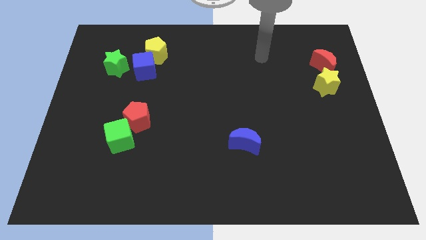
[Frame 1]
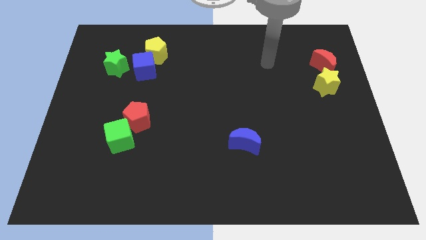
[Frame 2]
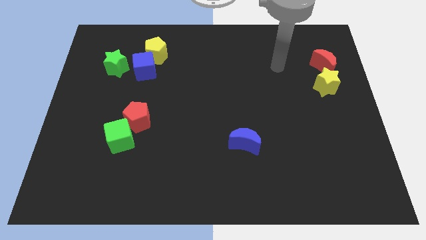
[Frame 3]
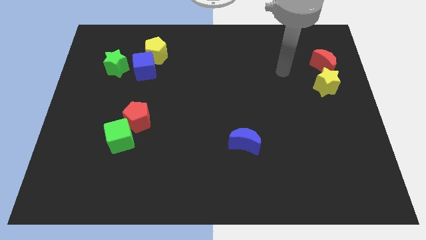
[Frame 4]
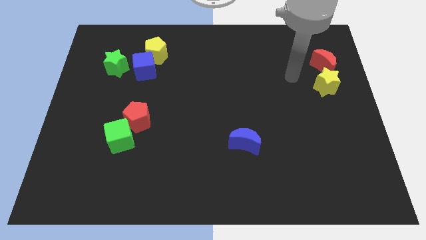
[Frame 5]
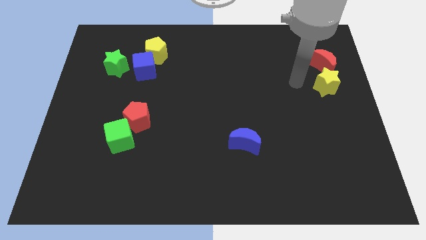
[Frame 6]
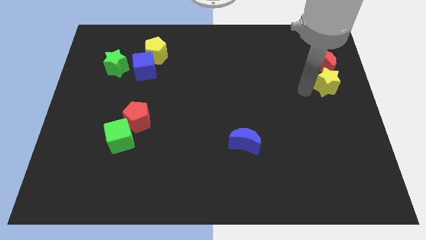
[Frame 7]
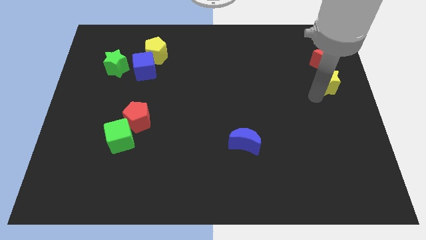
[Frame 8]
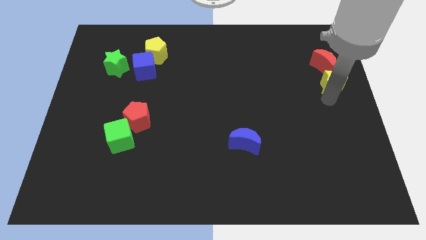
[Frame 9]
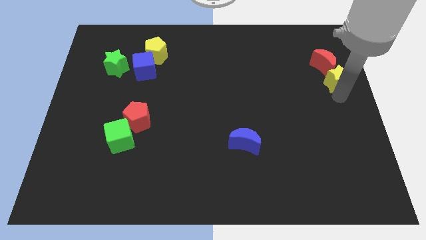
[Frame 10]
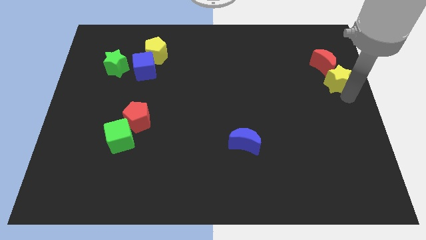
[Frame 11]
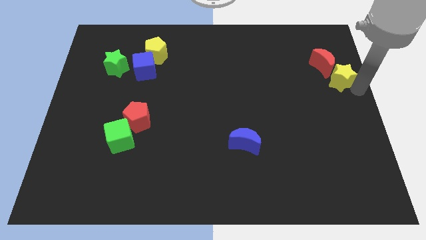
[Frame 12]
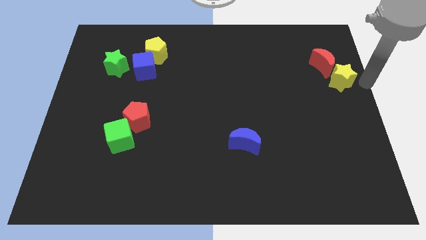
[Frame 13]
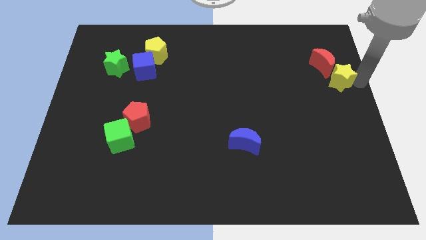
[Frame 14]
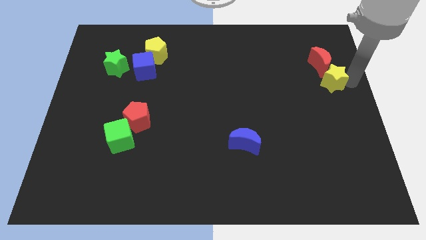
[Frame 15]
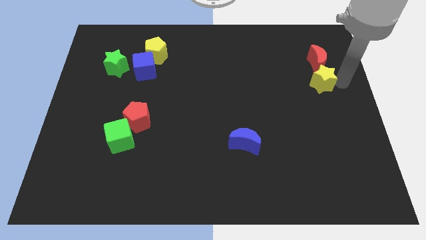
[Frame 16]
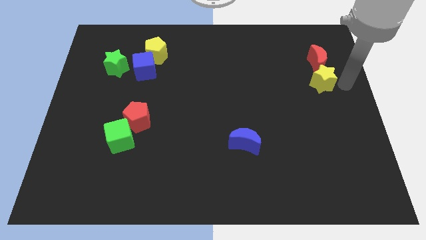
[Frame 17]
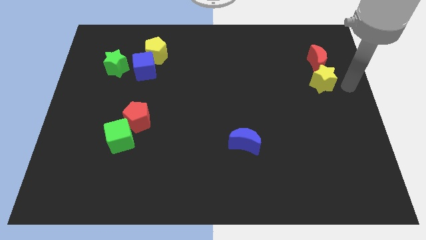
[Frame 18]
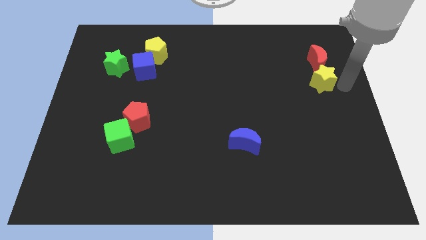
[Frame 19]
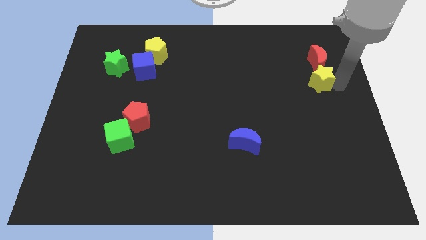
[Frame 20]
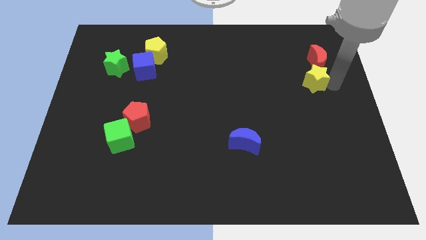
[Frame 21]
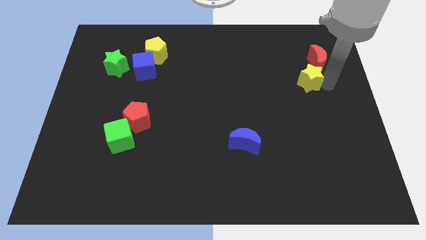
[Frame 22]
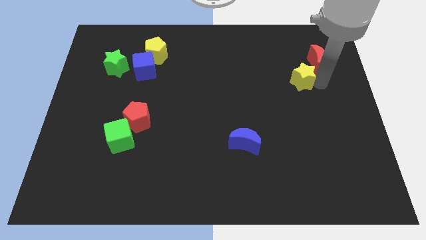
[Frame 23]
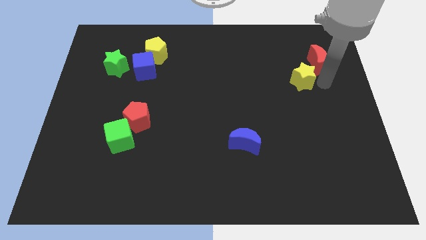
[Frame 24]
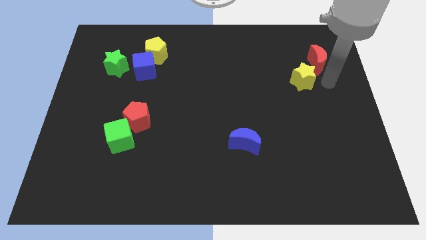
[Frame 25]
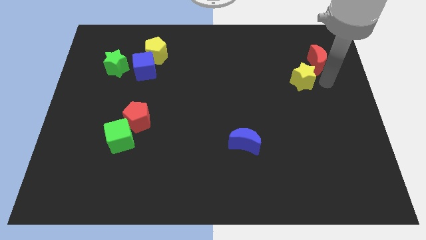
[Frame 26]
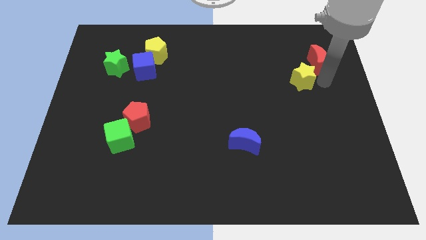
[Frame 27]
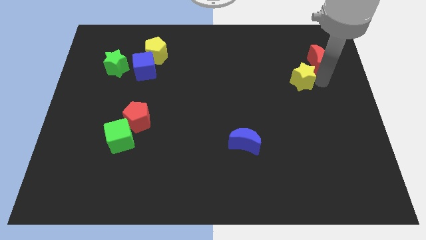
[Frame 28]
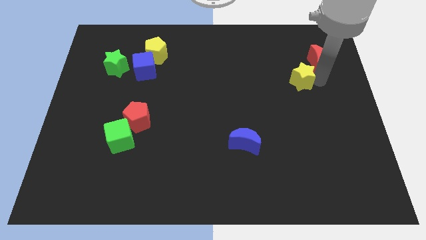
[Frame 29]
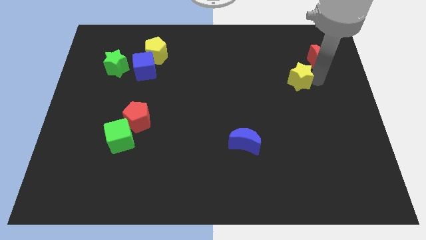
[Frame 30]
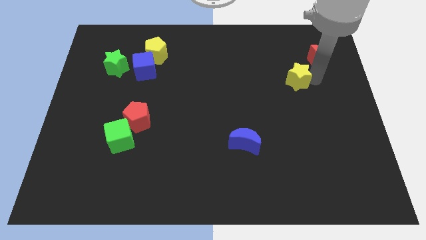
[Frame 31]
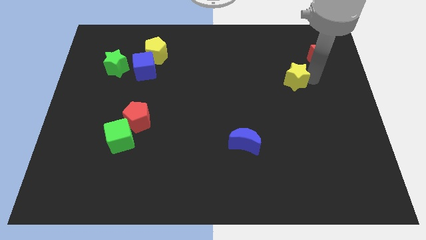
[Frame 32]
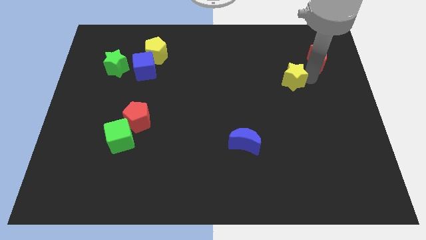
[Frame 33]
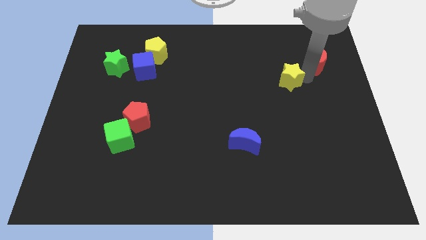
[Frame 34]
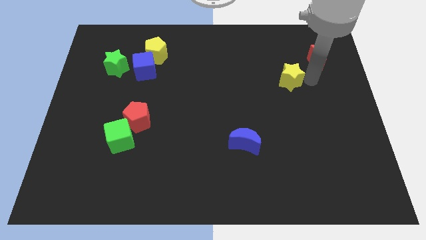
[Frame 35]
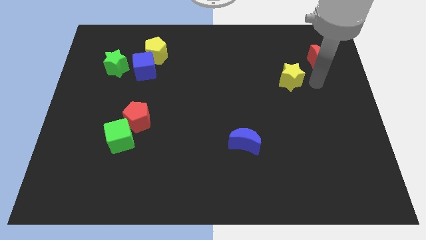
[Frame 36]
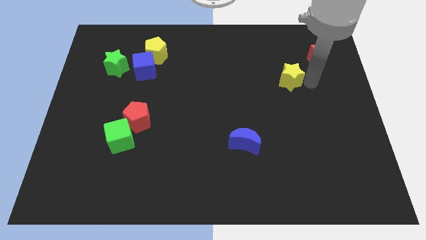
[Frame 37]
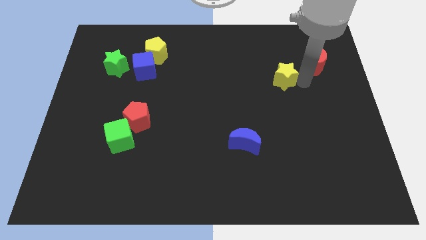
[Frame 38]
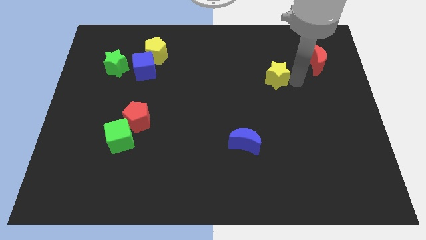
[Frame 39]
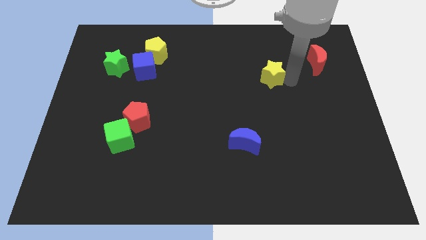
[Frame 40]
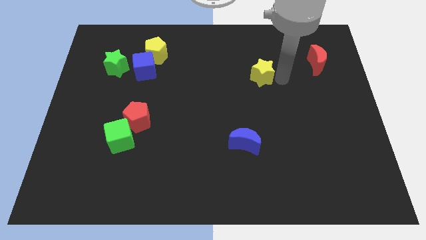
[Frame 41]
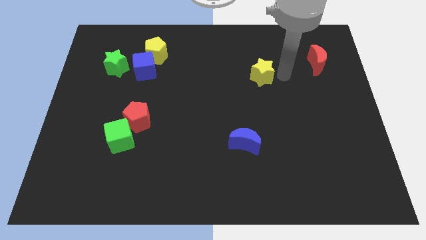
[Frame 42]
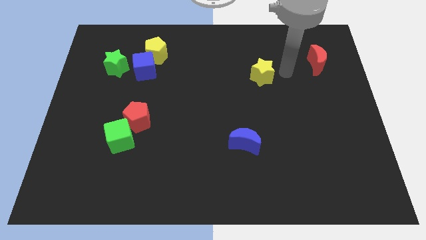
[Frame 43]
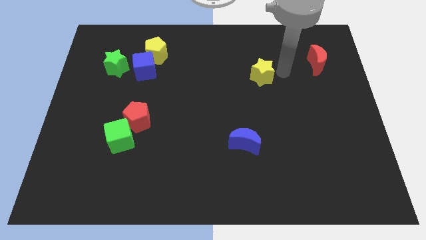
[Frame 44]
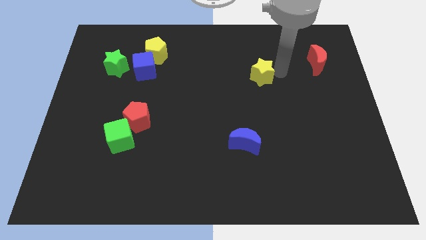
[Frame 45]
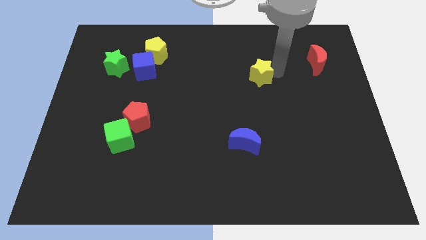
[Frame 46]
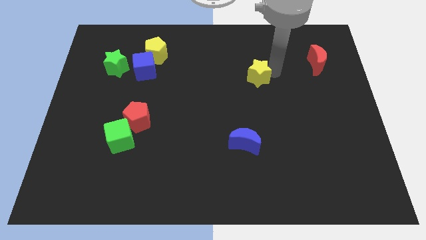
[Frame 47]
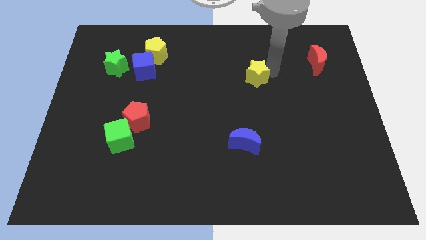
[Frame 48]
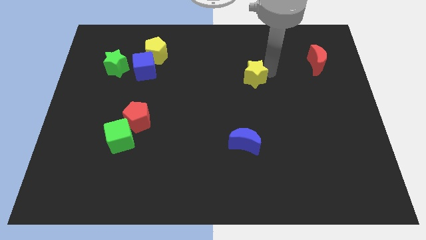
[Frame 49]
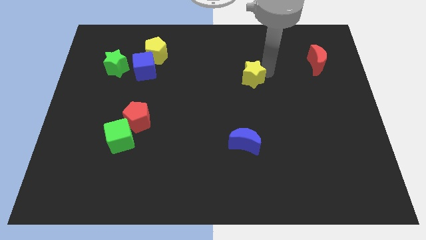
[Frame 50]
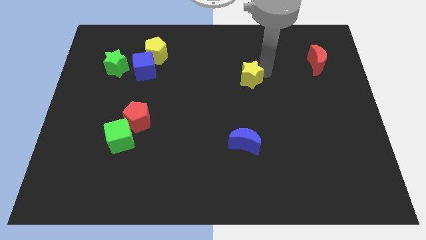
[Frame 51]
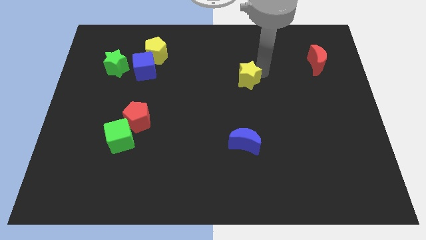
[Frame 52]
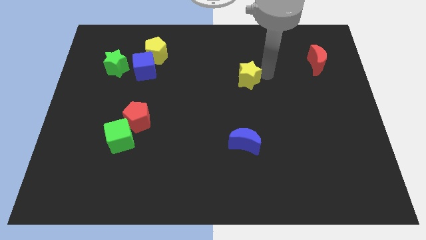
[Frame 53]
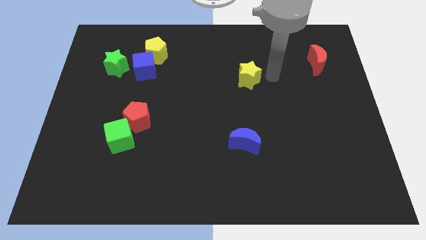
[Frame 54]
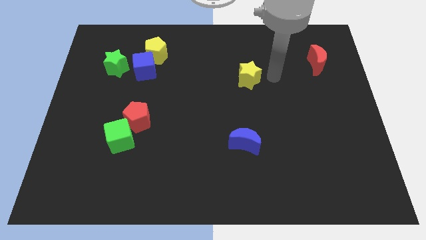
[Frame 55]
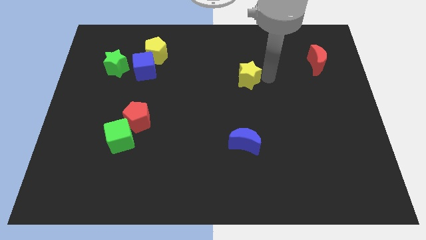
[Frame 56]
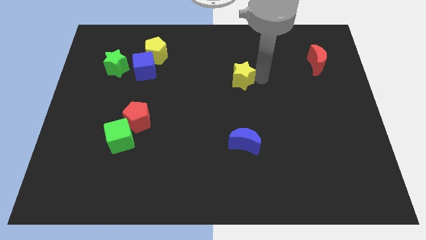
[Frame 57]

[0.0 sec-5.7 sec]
push the yellow star to the left

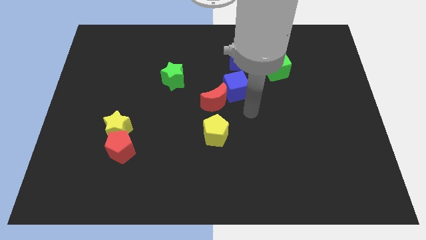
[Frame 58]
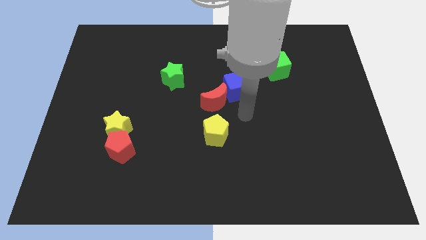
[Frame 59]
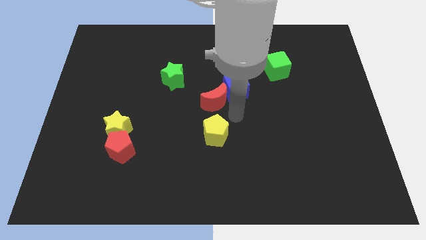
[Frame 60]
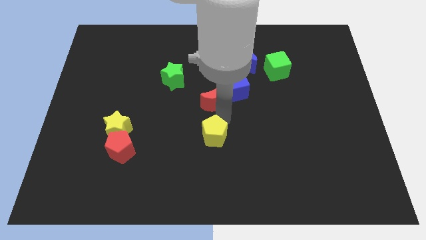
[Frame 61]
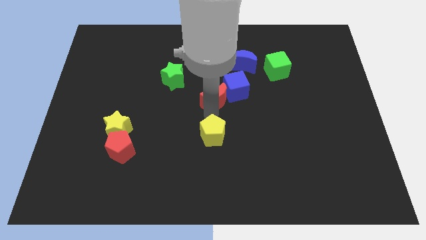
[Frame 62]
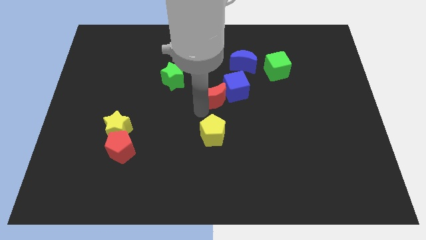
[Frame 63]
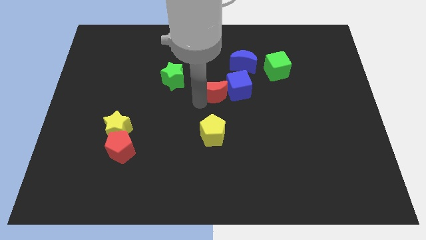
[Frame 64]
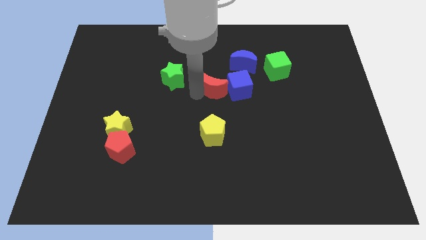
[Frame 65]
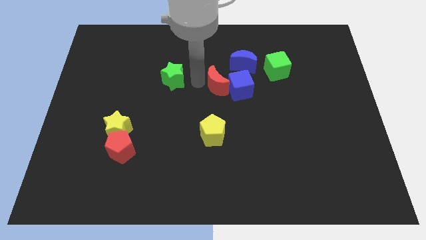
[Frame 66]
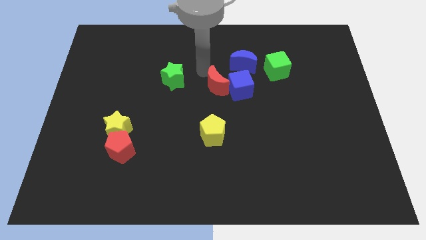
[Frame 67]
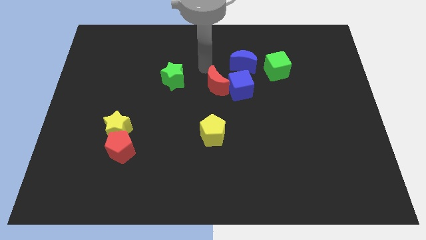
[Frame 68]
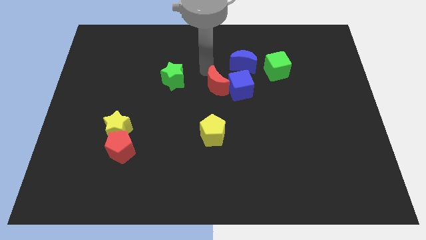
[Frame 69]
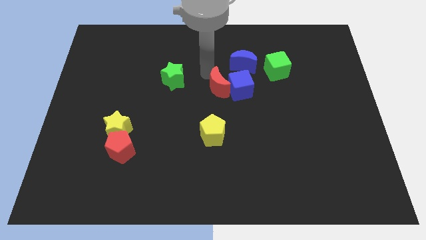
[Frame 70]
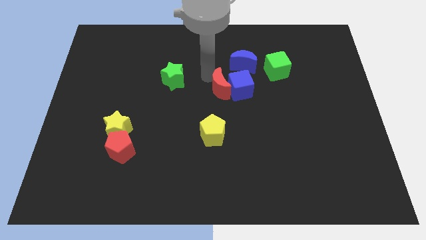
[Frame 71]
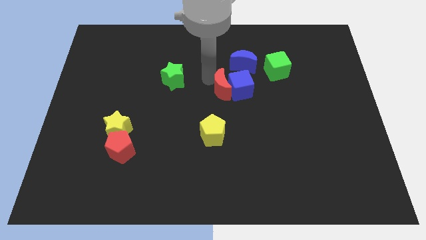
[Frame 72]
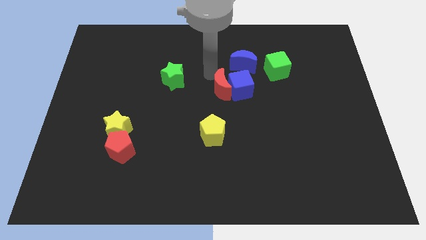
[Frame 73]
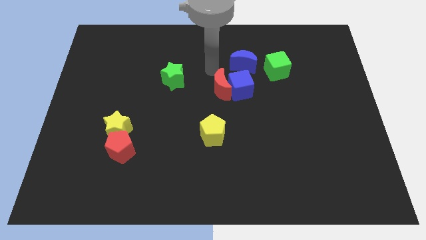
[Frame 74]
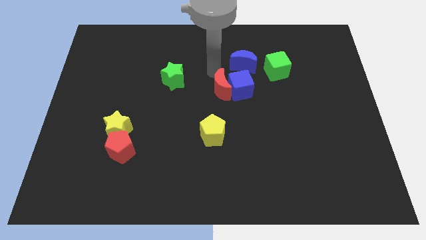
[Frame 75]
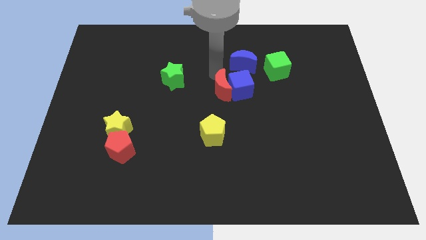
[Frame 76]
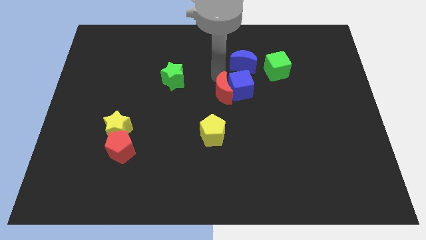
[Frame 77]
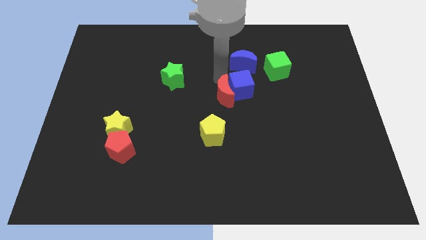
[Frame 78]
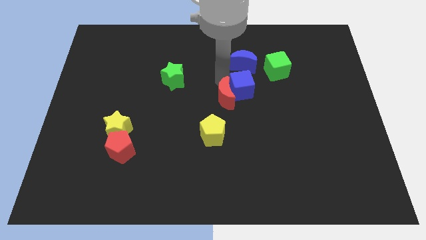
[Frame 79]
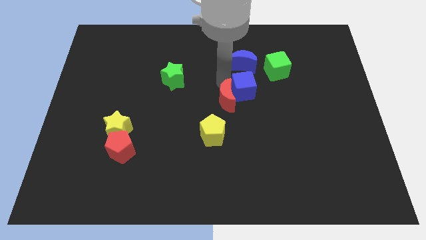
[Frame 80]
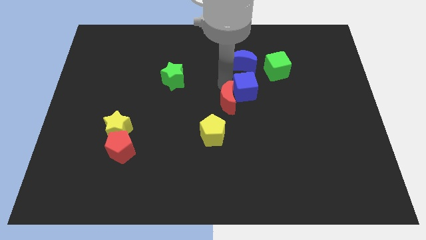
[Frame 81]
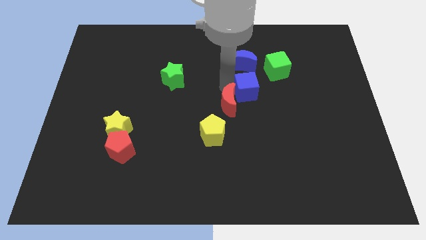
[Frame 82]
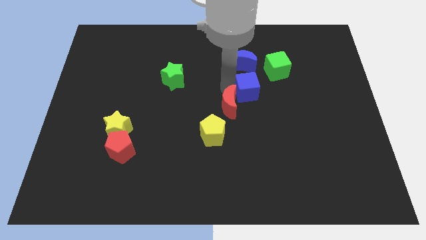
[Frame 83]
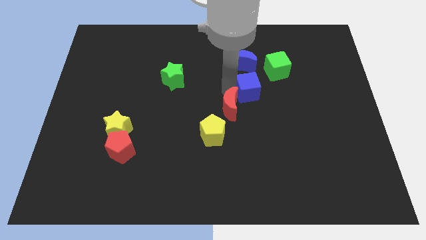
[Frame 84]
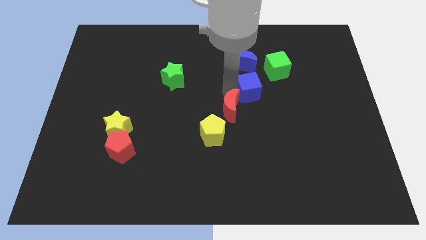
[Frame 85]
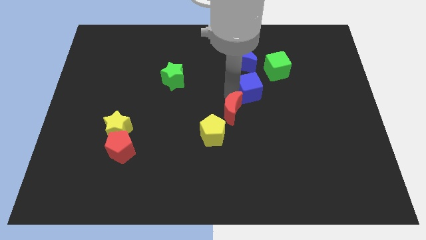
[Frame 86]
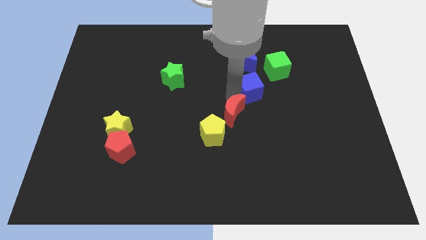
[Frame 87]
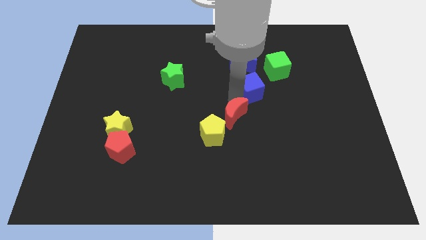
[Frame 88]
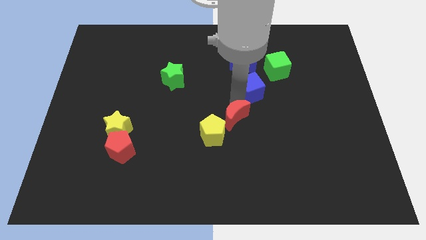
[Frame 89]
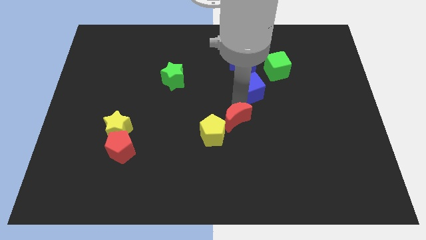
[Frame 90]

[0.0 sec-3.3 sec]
slightly move the red moon diagonally down and right
